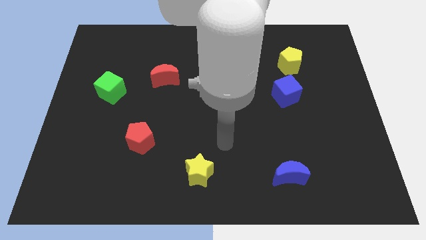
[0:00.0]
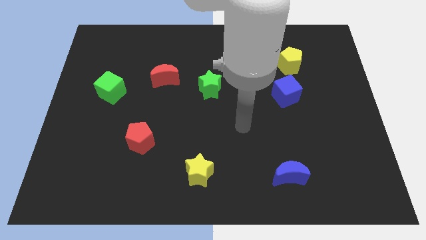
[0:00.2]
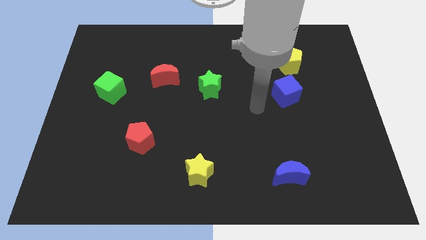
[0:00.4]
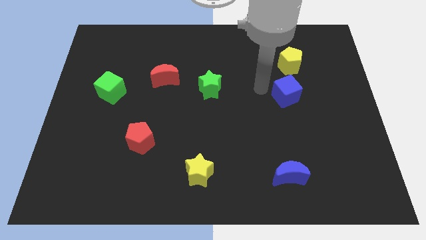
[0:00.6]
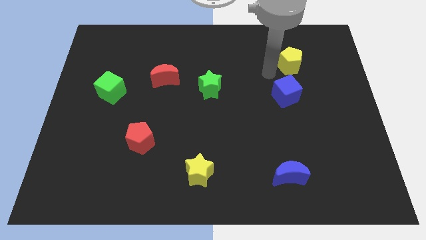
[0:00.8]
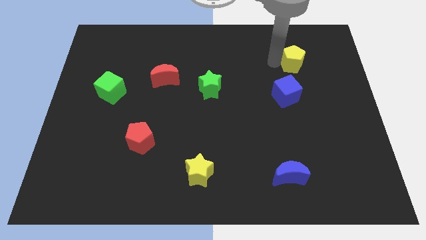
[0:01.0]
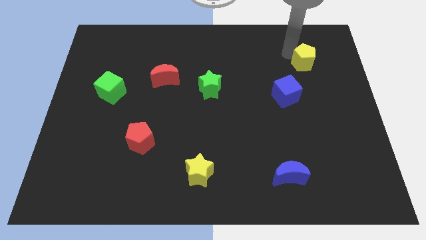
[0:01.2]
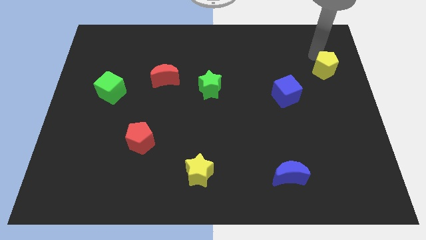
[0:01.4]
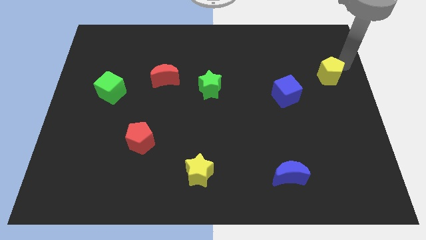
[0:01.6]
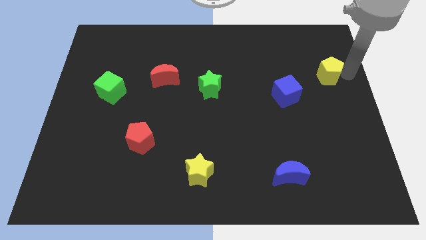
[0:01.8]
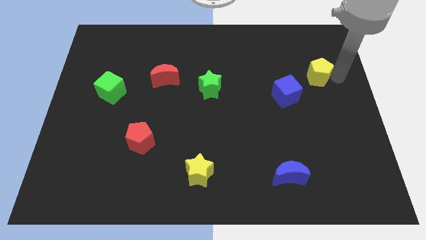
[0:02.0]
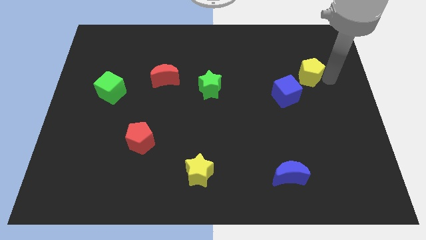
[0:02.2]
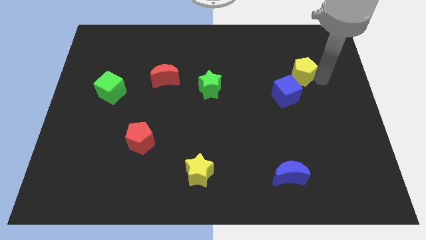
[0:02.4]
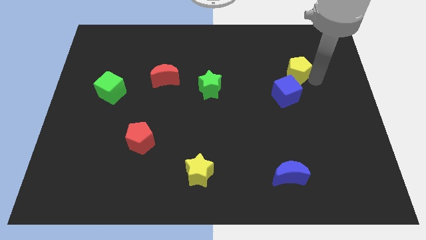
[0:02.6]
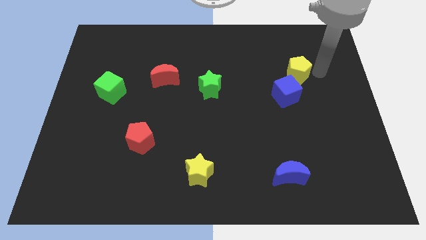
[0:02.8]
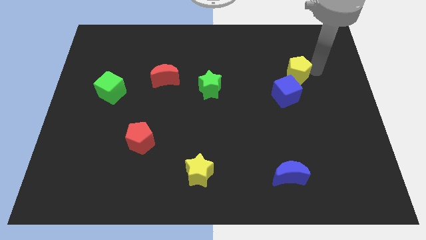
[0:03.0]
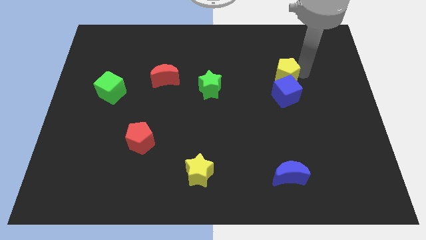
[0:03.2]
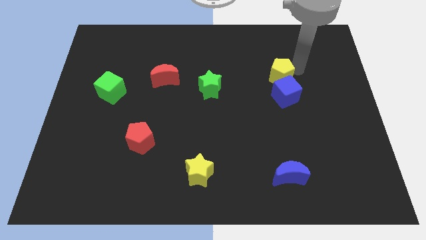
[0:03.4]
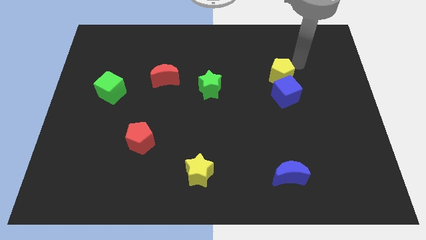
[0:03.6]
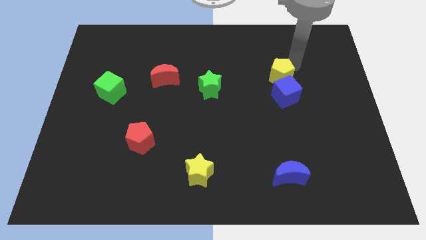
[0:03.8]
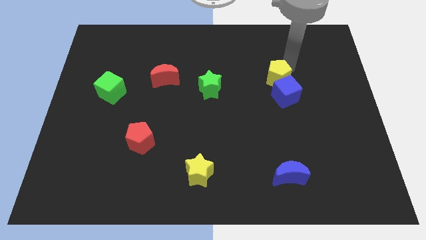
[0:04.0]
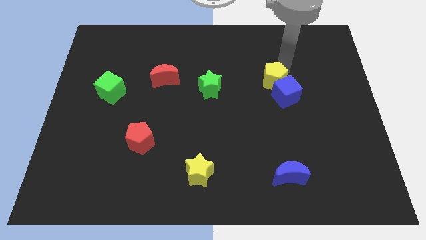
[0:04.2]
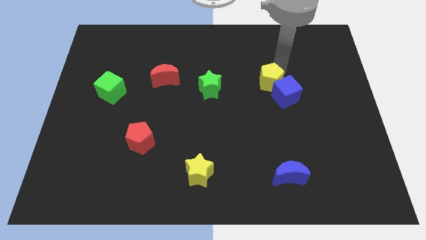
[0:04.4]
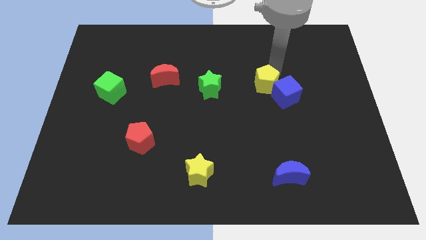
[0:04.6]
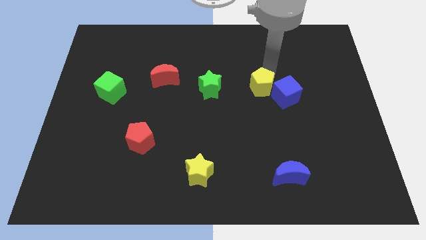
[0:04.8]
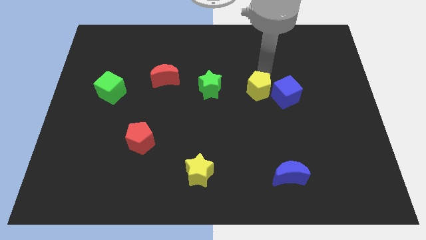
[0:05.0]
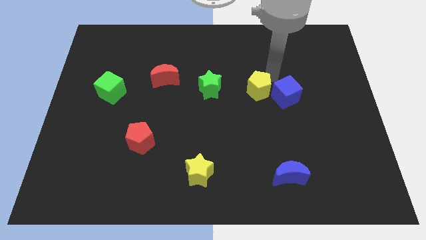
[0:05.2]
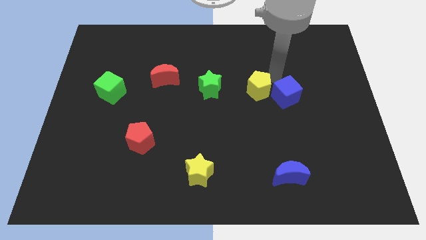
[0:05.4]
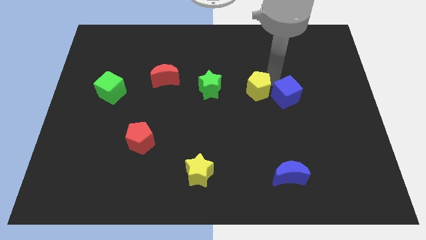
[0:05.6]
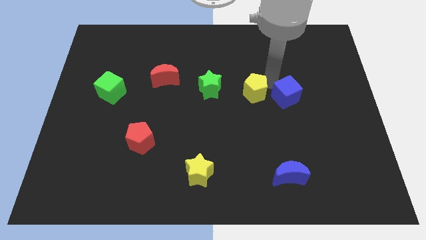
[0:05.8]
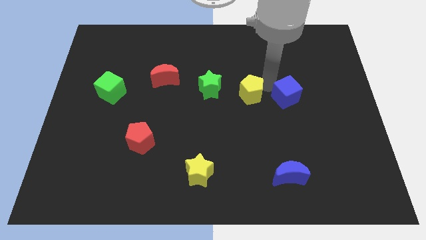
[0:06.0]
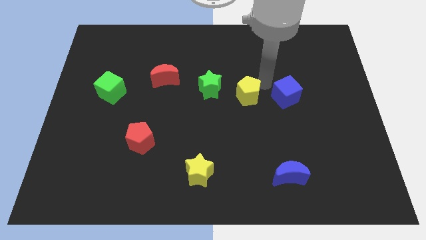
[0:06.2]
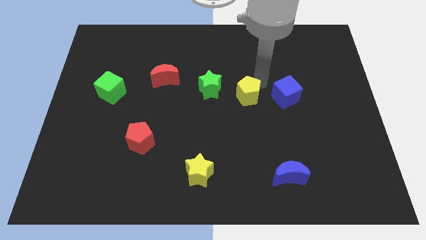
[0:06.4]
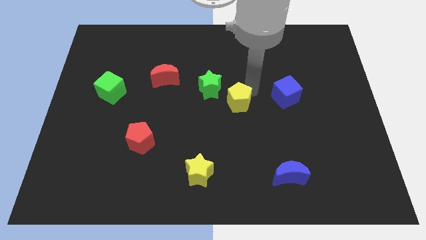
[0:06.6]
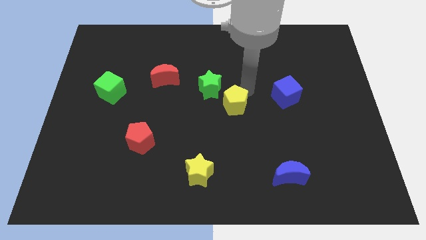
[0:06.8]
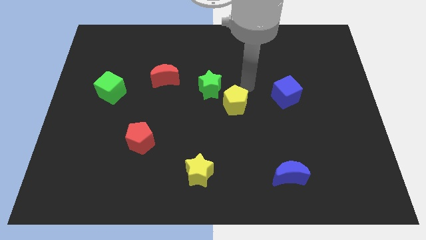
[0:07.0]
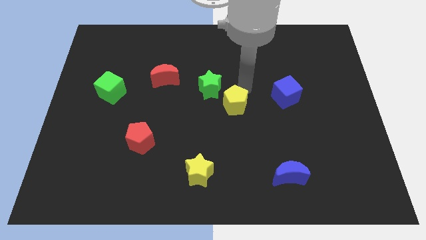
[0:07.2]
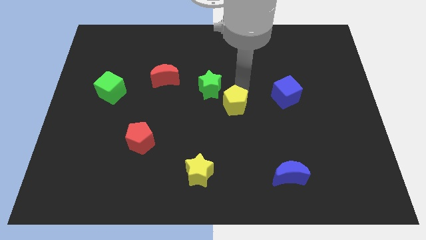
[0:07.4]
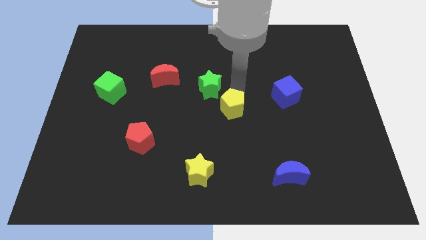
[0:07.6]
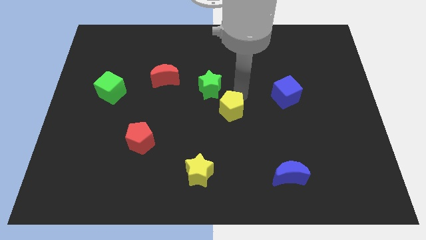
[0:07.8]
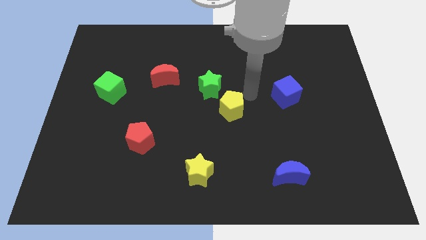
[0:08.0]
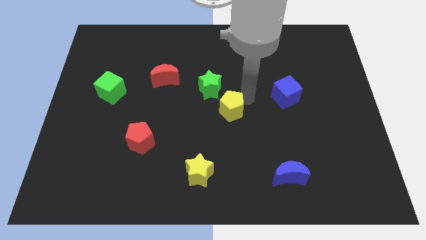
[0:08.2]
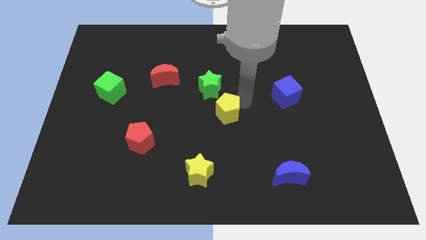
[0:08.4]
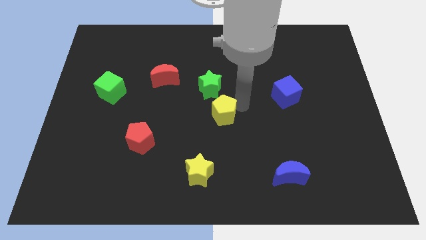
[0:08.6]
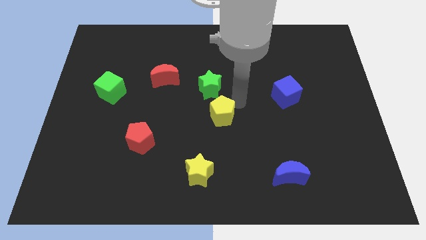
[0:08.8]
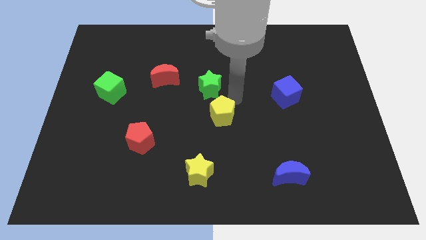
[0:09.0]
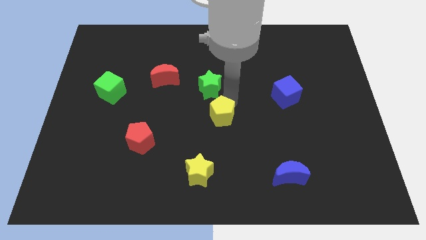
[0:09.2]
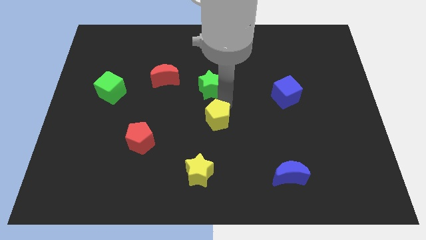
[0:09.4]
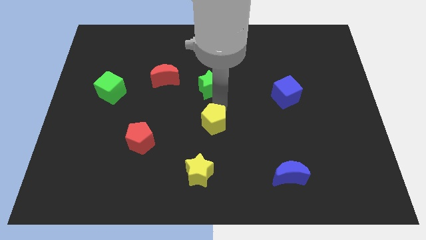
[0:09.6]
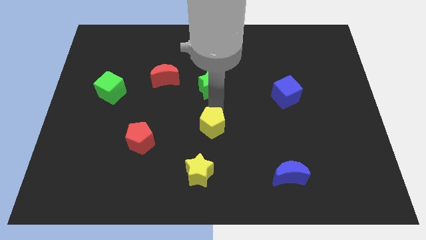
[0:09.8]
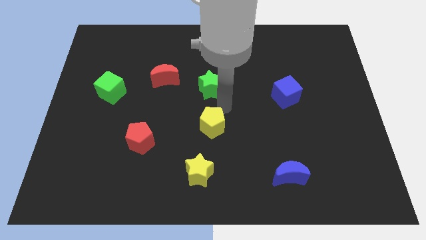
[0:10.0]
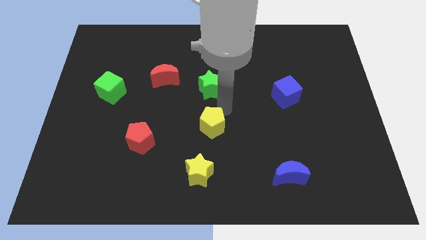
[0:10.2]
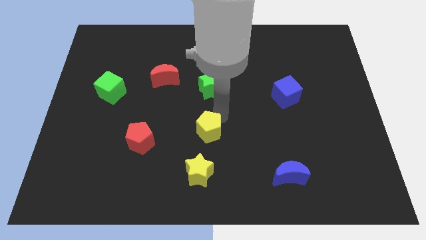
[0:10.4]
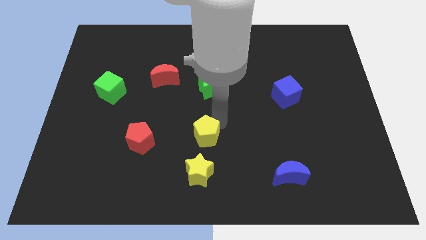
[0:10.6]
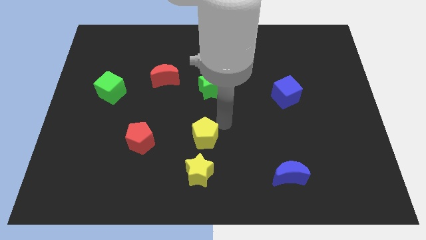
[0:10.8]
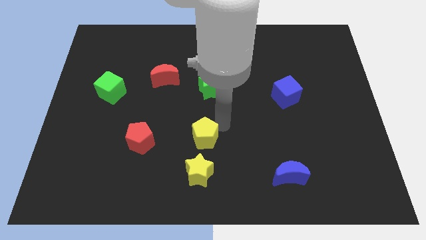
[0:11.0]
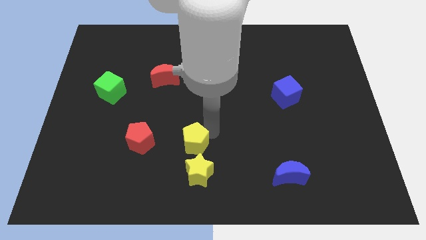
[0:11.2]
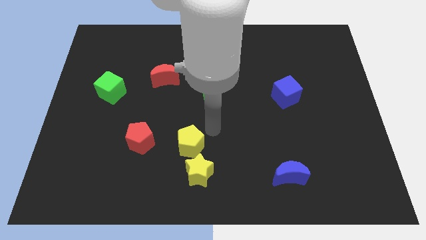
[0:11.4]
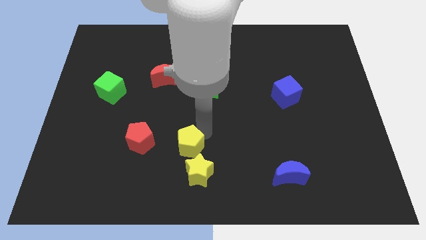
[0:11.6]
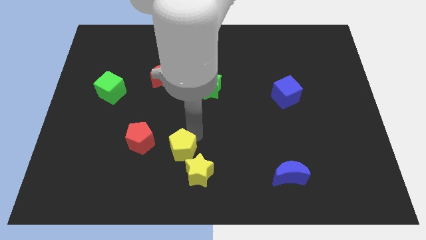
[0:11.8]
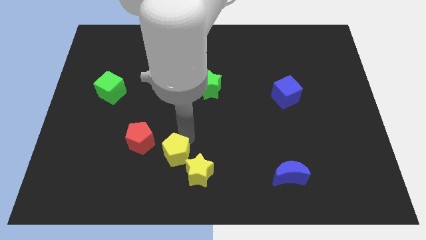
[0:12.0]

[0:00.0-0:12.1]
put the yellow pentagon to the left side of the yellow star
